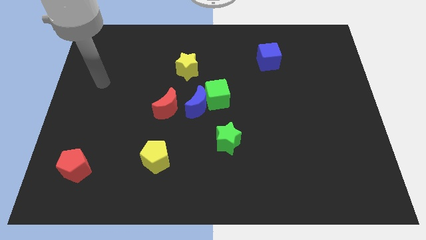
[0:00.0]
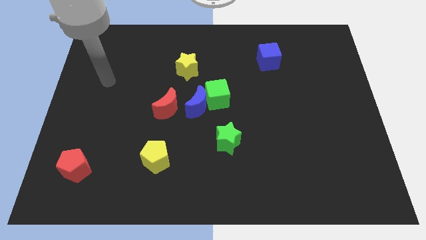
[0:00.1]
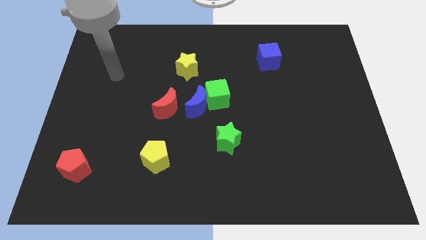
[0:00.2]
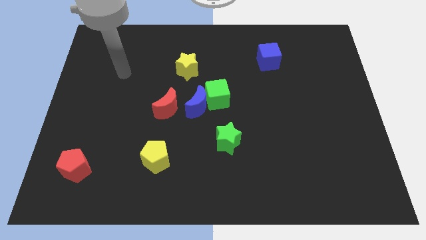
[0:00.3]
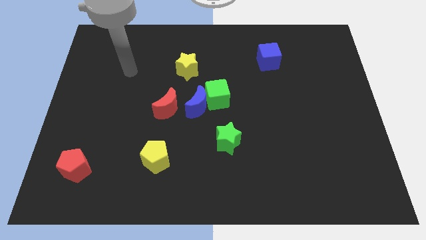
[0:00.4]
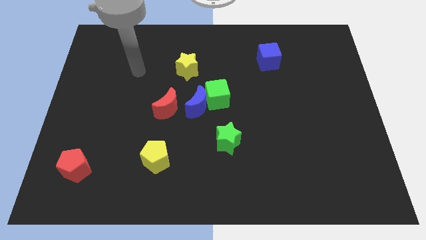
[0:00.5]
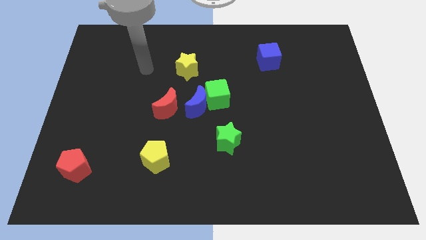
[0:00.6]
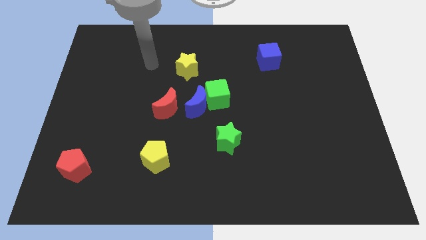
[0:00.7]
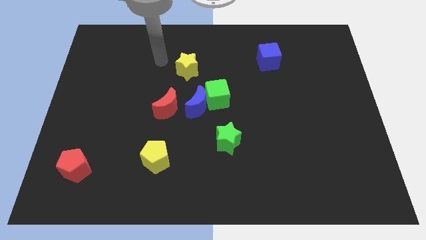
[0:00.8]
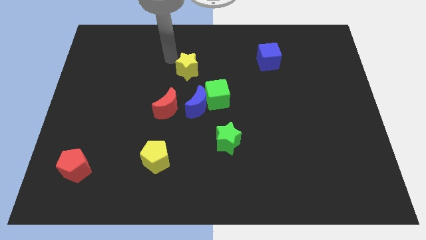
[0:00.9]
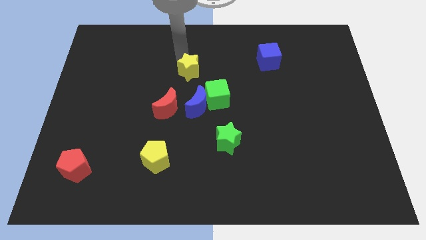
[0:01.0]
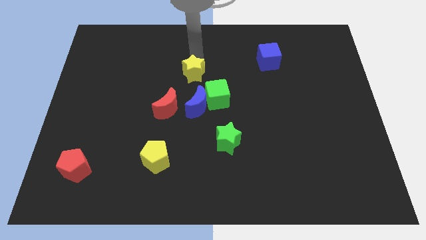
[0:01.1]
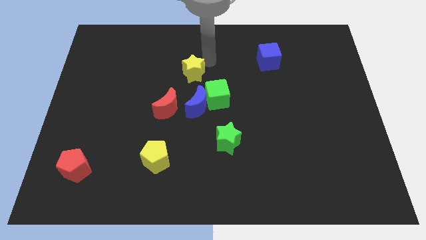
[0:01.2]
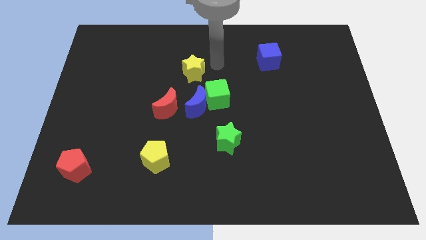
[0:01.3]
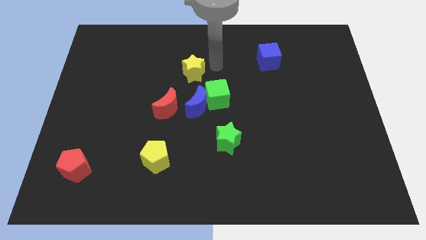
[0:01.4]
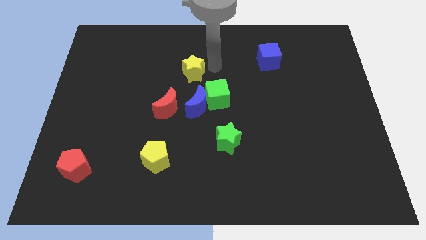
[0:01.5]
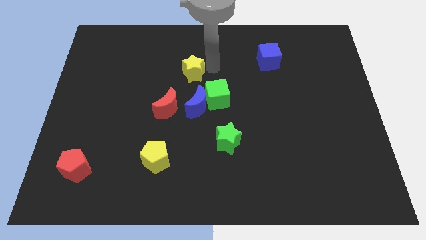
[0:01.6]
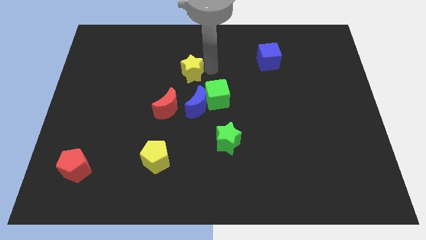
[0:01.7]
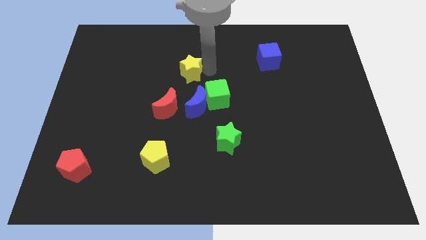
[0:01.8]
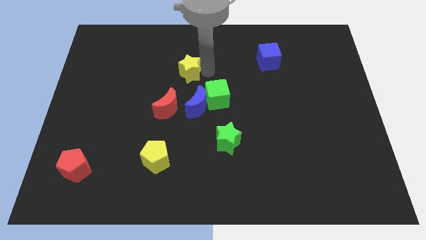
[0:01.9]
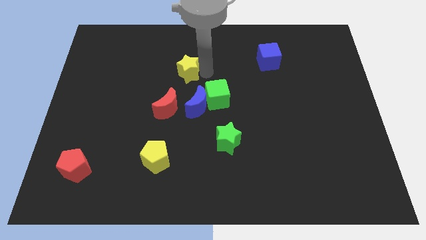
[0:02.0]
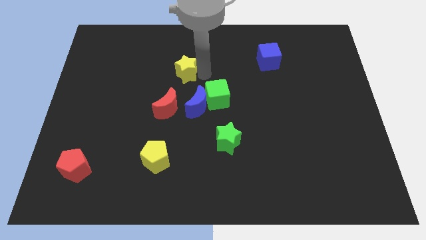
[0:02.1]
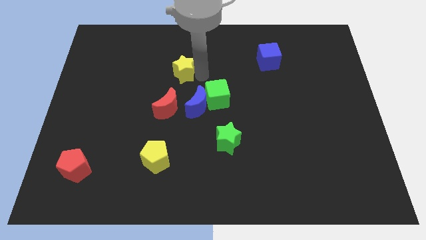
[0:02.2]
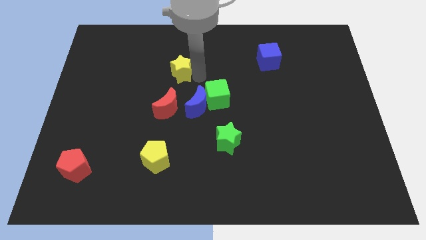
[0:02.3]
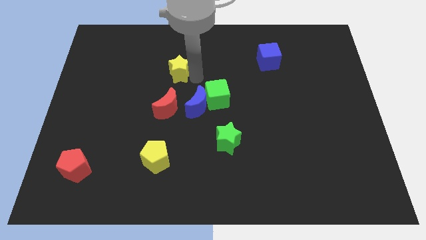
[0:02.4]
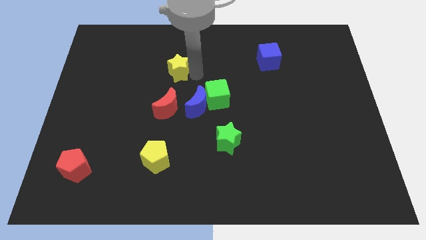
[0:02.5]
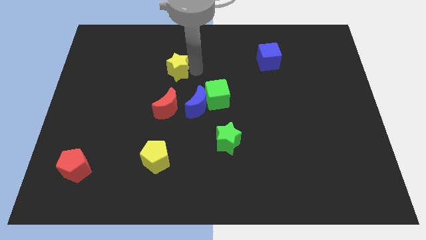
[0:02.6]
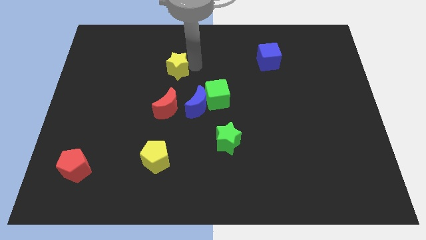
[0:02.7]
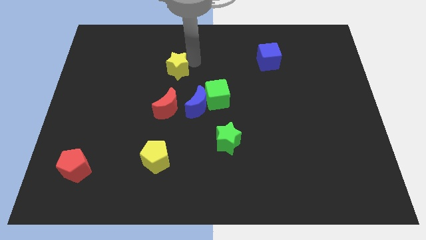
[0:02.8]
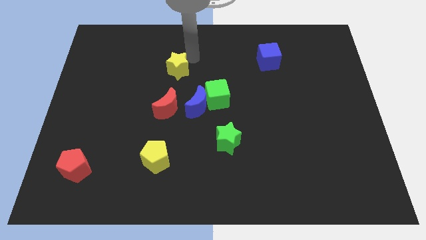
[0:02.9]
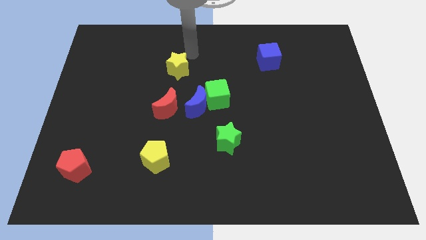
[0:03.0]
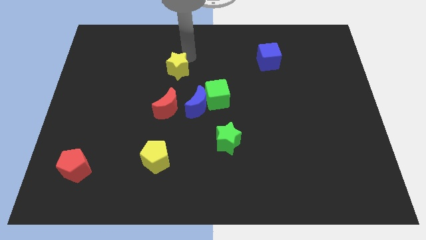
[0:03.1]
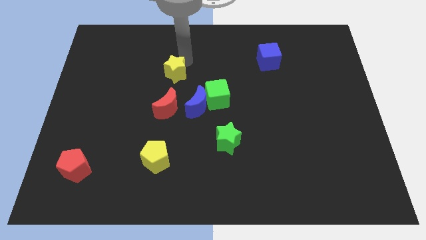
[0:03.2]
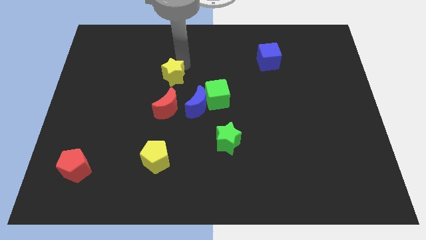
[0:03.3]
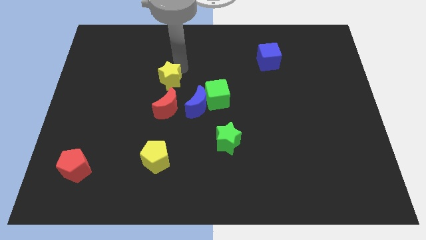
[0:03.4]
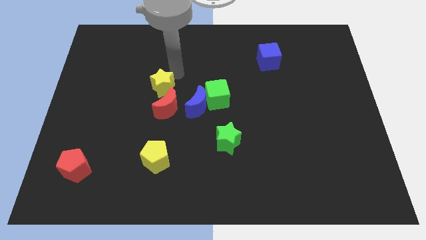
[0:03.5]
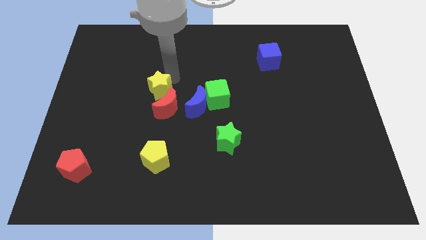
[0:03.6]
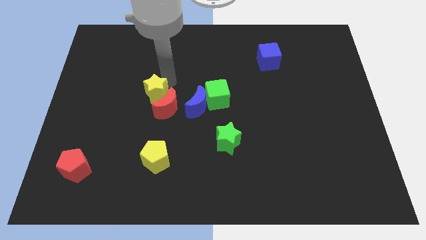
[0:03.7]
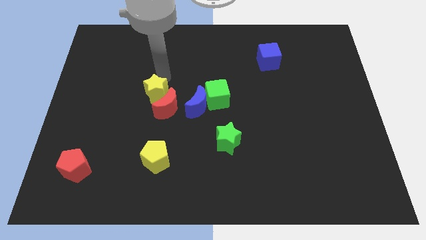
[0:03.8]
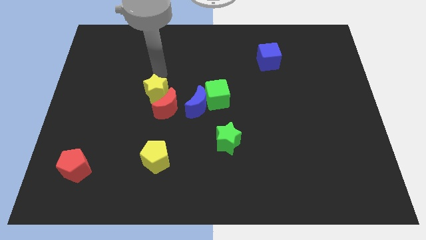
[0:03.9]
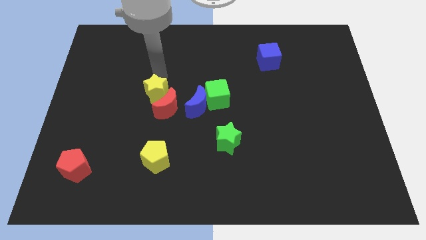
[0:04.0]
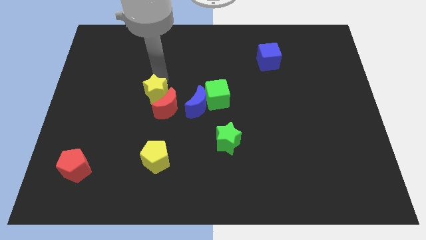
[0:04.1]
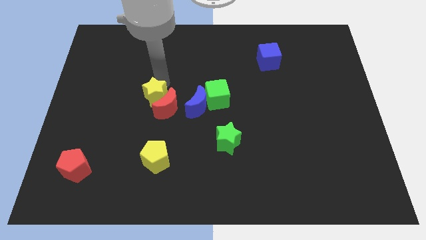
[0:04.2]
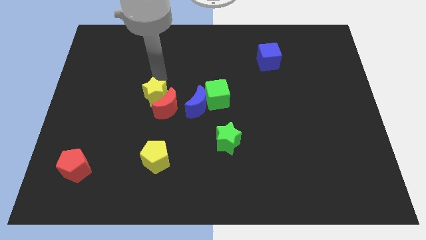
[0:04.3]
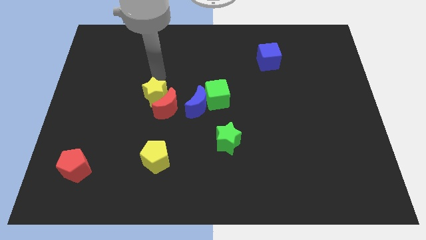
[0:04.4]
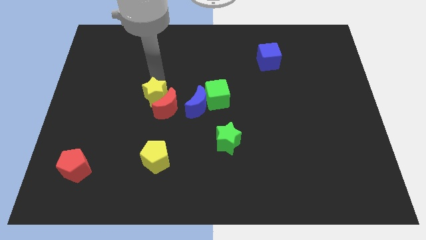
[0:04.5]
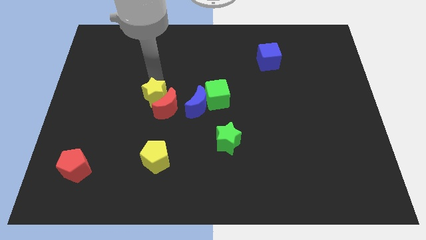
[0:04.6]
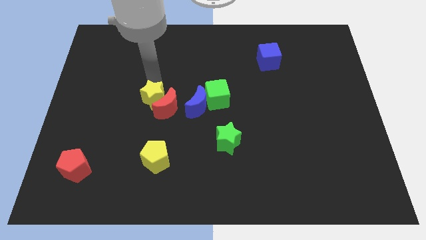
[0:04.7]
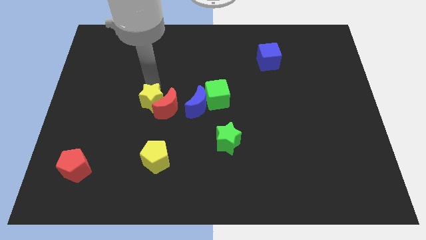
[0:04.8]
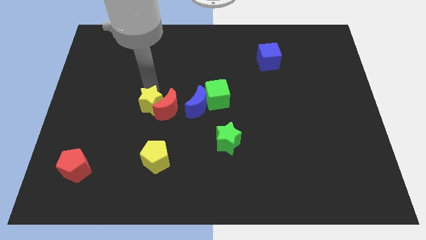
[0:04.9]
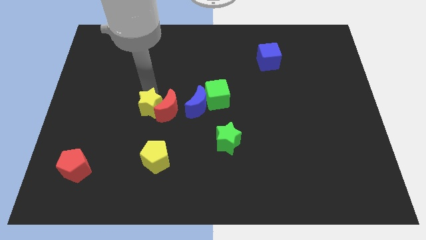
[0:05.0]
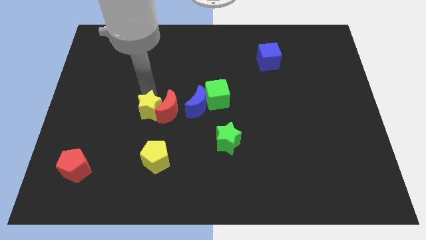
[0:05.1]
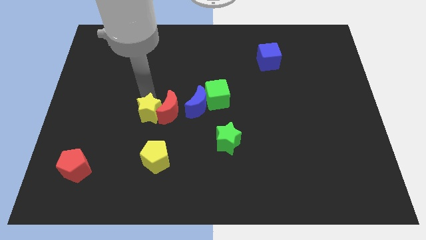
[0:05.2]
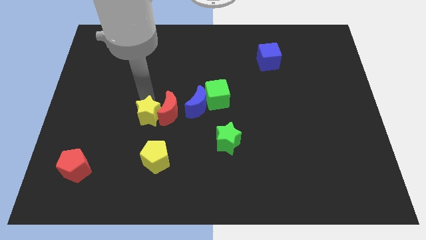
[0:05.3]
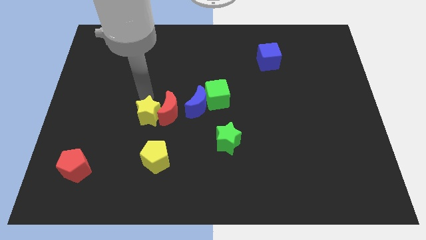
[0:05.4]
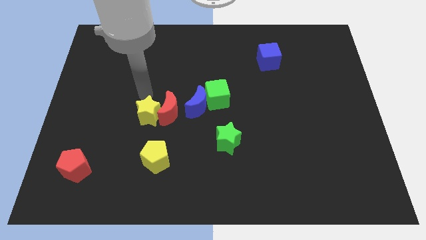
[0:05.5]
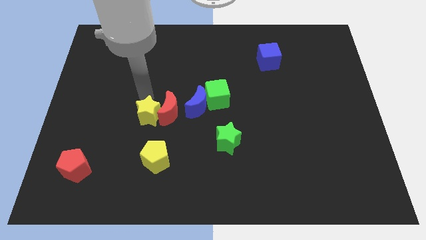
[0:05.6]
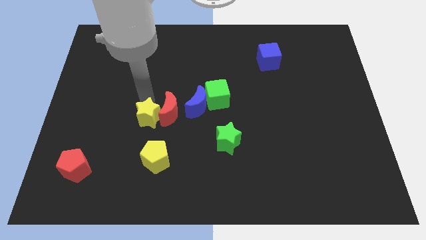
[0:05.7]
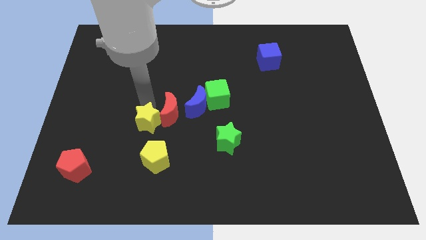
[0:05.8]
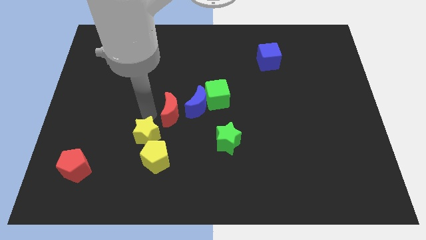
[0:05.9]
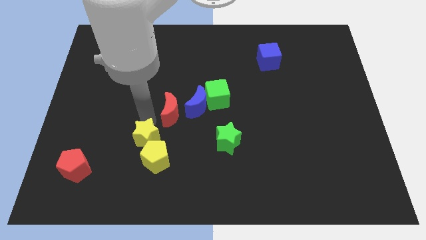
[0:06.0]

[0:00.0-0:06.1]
move the yellow star towards the yellow pentagon
